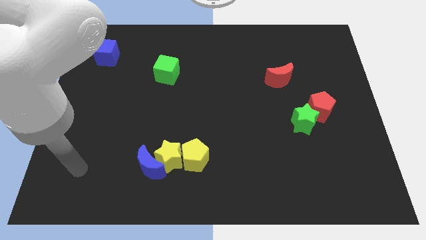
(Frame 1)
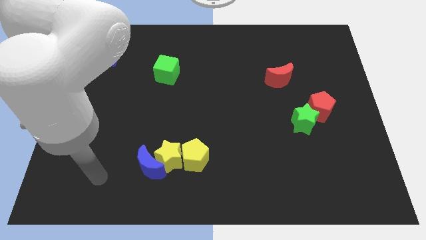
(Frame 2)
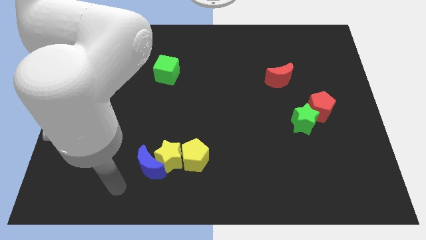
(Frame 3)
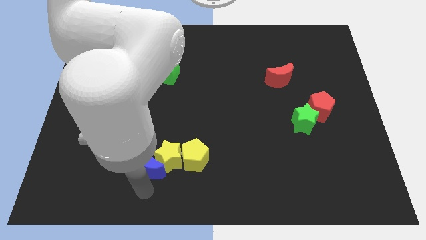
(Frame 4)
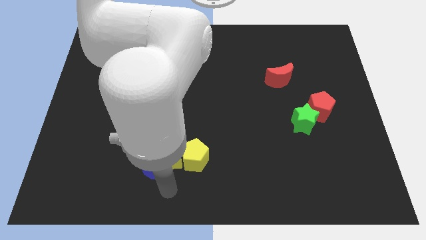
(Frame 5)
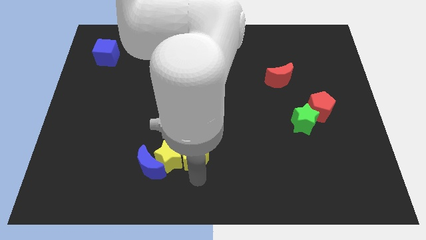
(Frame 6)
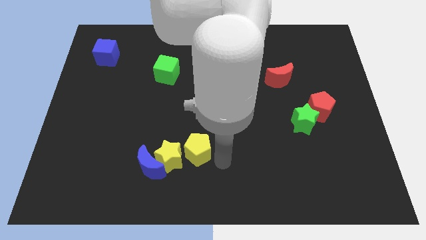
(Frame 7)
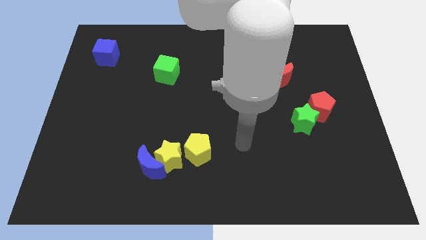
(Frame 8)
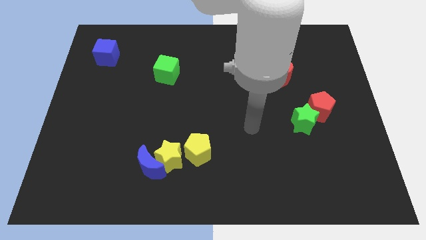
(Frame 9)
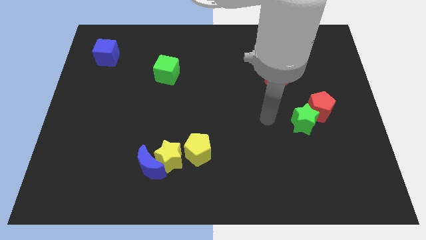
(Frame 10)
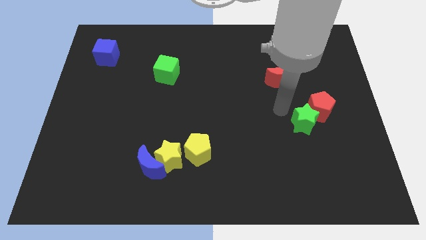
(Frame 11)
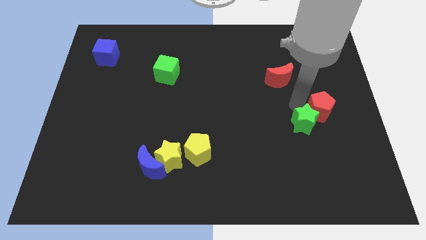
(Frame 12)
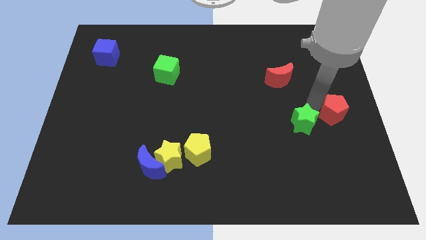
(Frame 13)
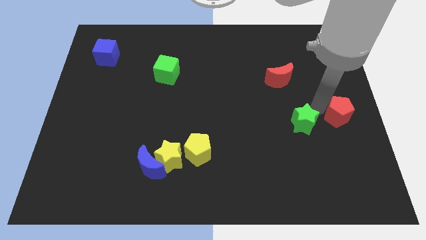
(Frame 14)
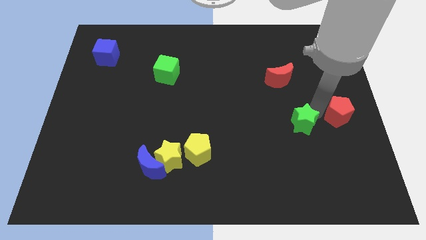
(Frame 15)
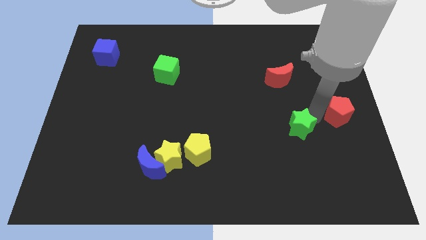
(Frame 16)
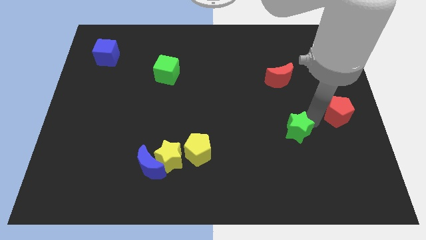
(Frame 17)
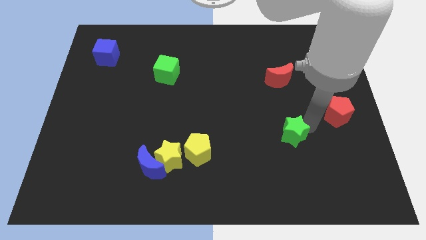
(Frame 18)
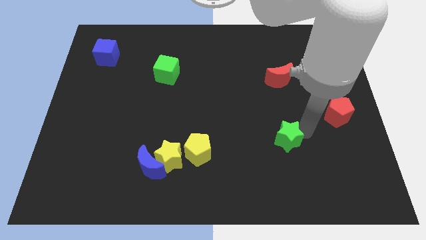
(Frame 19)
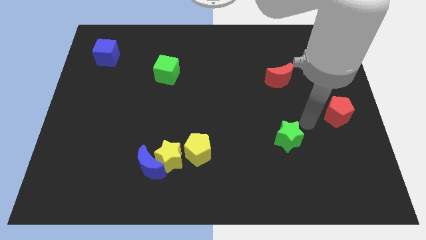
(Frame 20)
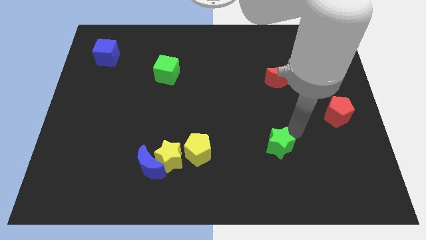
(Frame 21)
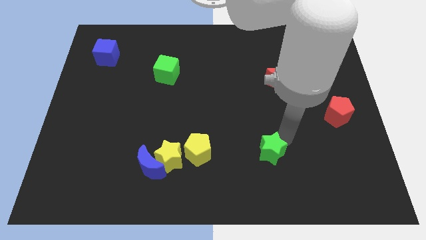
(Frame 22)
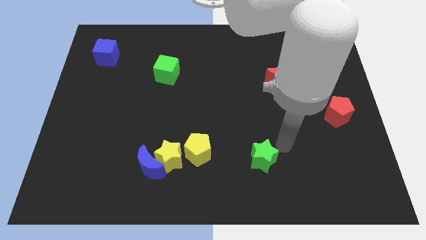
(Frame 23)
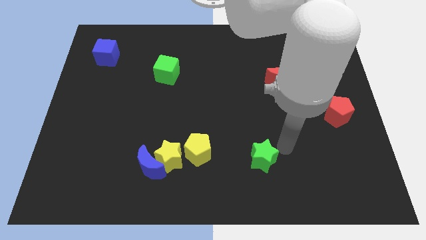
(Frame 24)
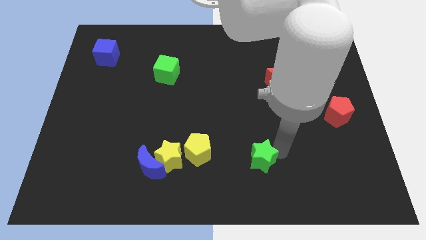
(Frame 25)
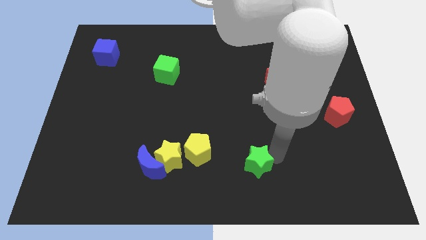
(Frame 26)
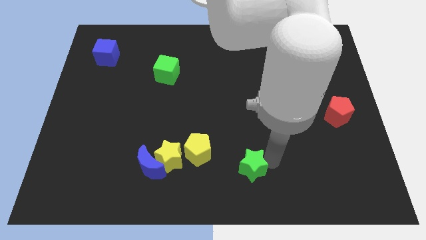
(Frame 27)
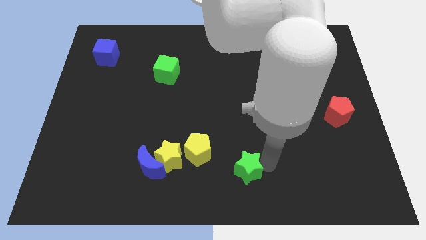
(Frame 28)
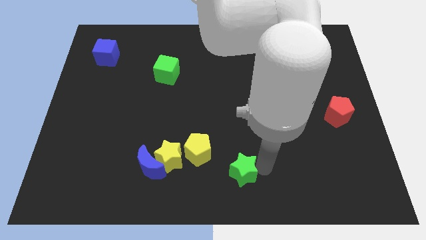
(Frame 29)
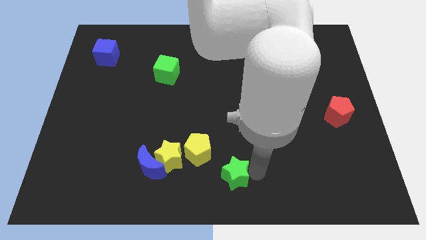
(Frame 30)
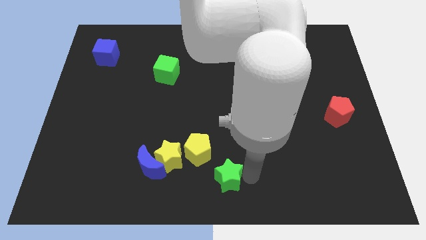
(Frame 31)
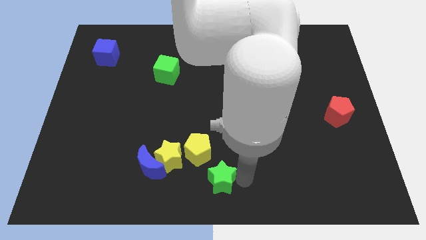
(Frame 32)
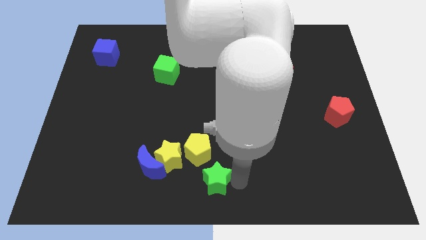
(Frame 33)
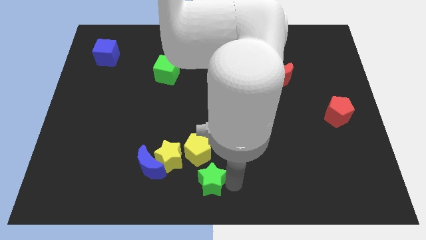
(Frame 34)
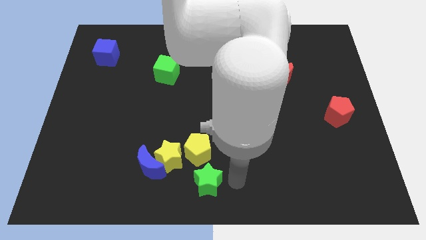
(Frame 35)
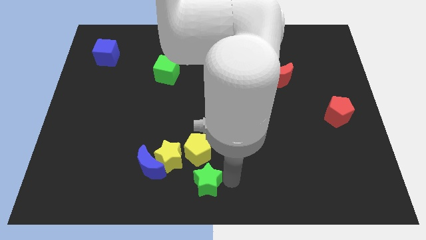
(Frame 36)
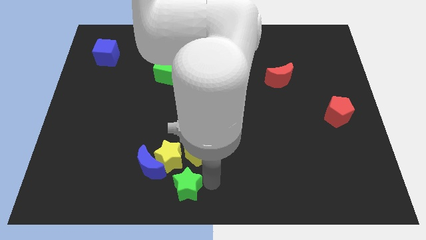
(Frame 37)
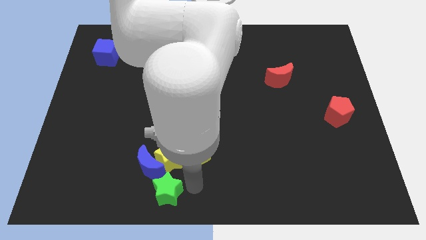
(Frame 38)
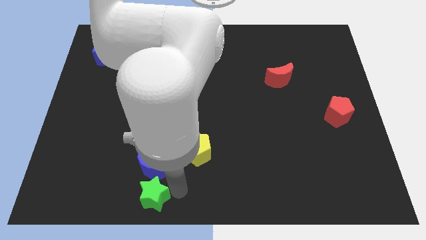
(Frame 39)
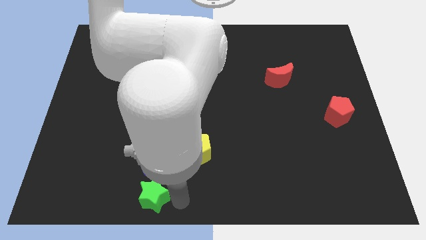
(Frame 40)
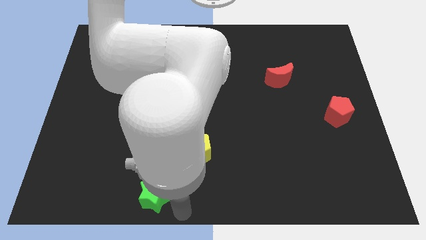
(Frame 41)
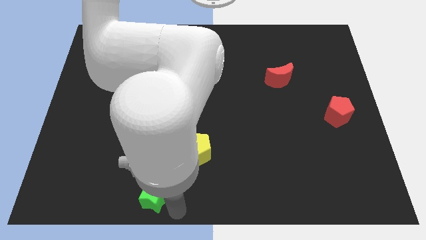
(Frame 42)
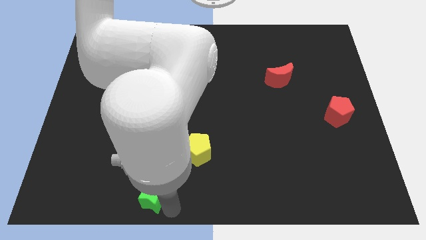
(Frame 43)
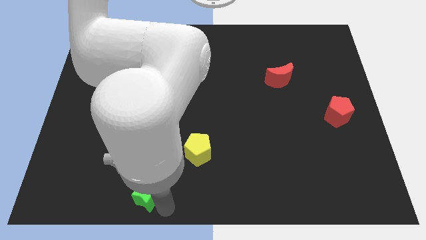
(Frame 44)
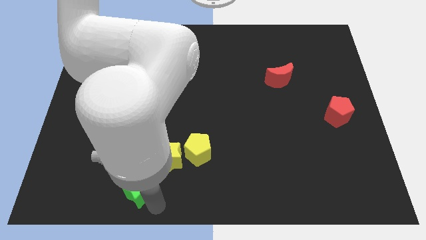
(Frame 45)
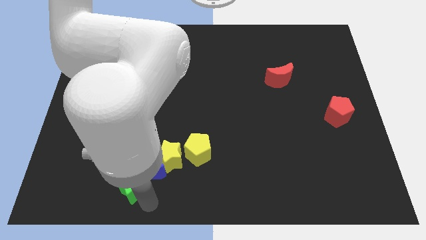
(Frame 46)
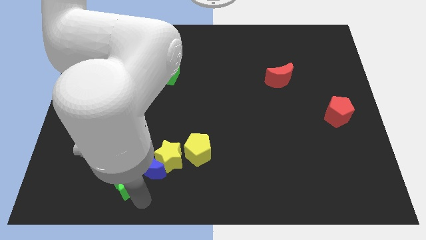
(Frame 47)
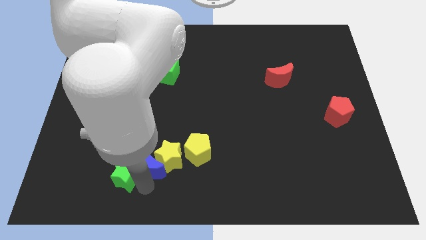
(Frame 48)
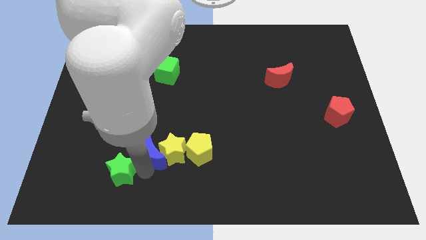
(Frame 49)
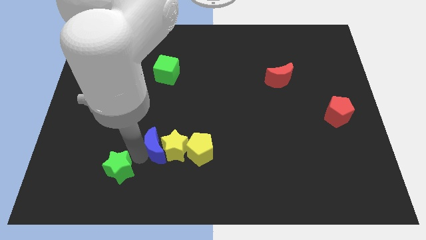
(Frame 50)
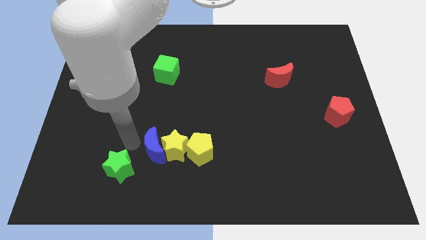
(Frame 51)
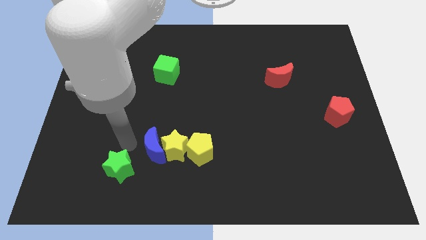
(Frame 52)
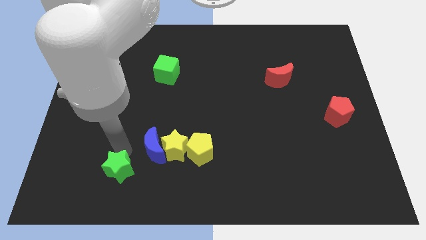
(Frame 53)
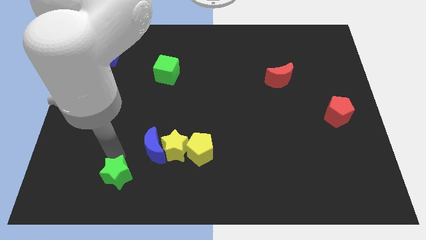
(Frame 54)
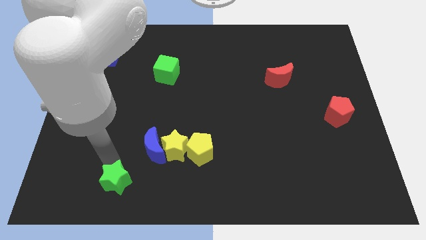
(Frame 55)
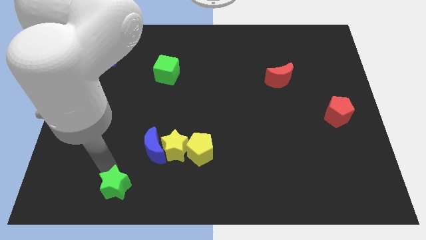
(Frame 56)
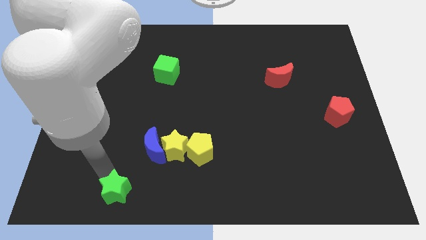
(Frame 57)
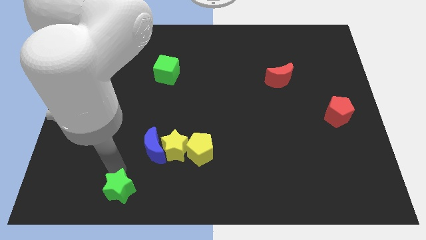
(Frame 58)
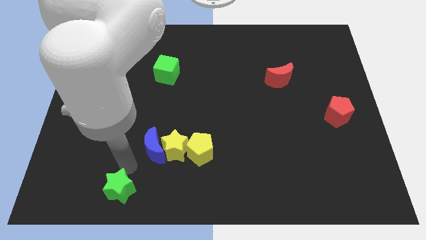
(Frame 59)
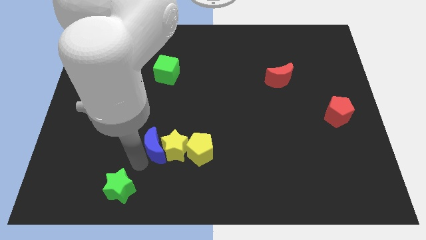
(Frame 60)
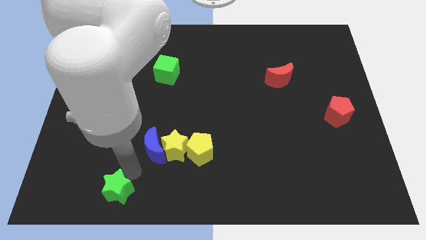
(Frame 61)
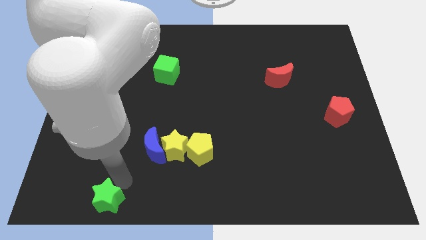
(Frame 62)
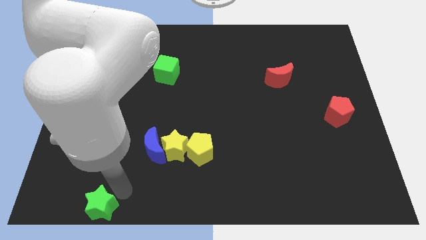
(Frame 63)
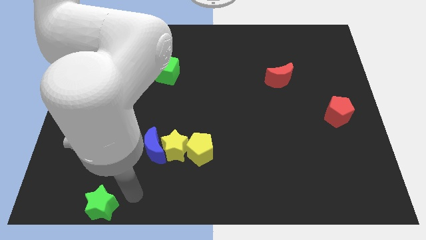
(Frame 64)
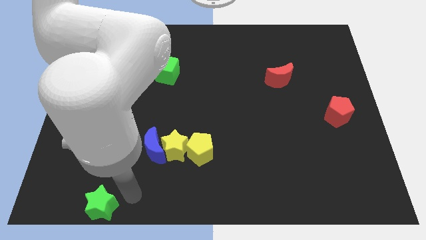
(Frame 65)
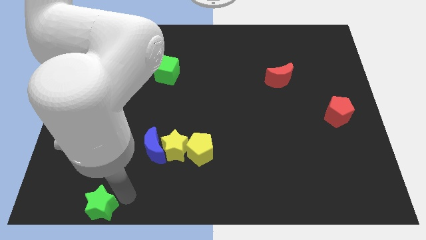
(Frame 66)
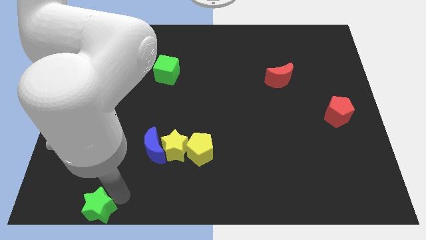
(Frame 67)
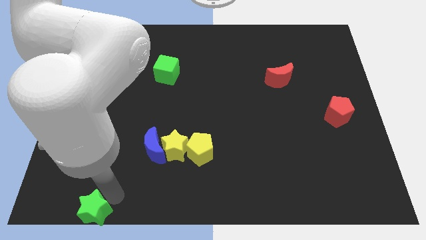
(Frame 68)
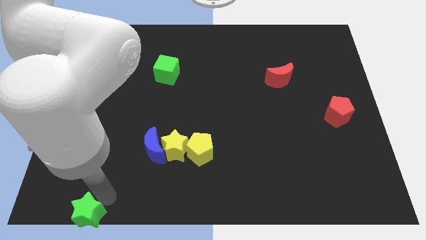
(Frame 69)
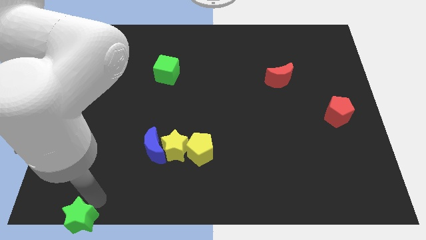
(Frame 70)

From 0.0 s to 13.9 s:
slide the green star to the lower left corner
